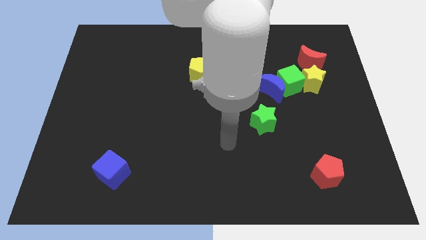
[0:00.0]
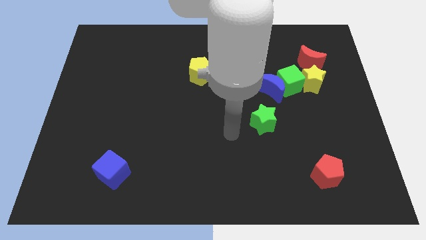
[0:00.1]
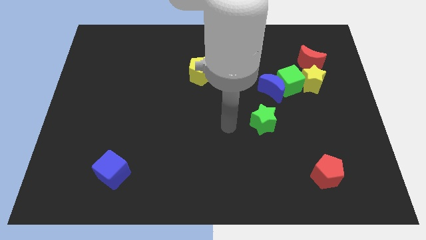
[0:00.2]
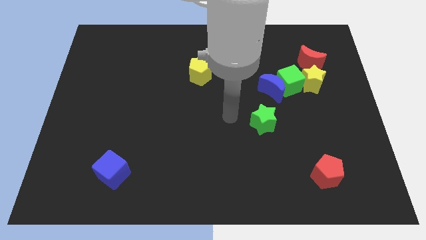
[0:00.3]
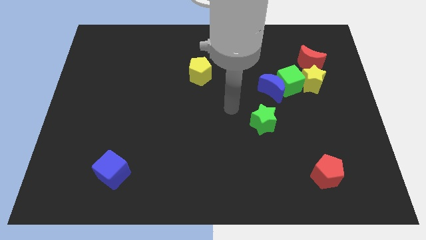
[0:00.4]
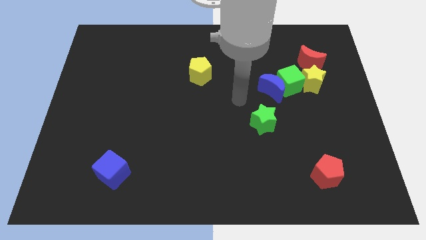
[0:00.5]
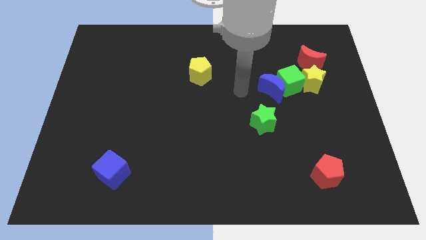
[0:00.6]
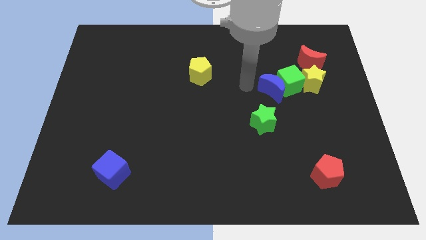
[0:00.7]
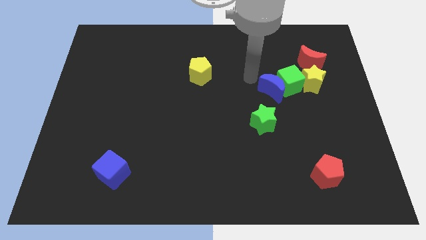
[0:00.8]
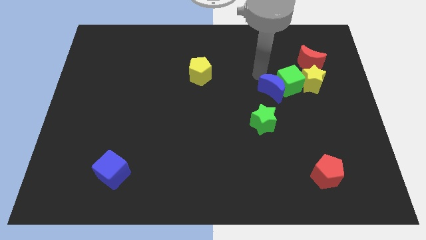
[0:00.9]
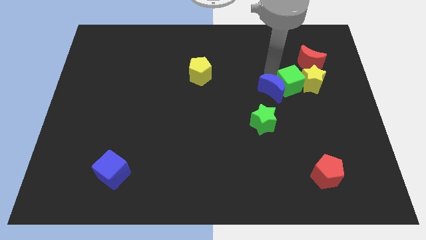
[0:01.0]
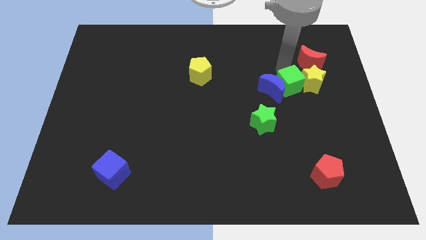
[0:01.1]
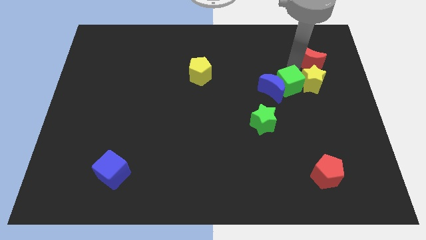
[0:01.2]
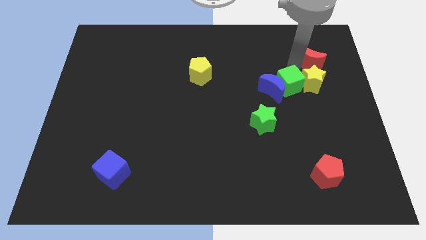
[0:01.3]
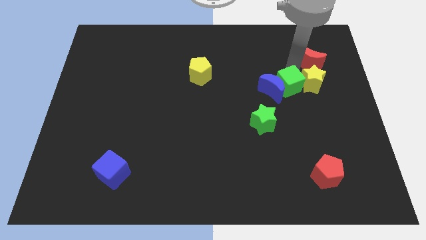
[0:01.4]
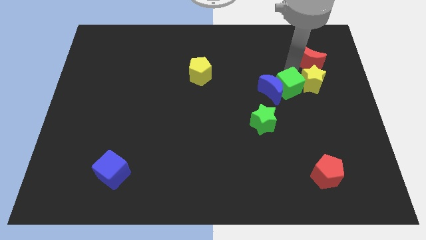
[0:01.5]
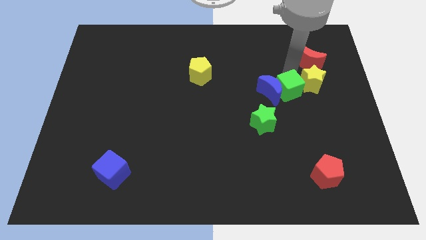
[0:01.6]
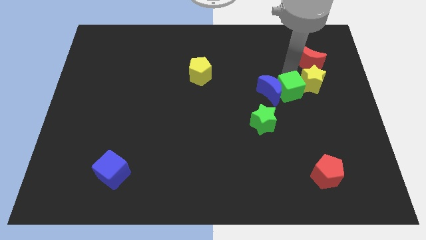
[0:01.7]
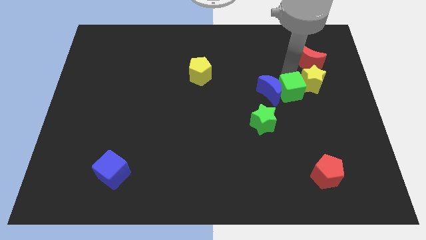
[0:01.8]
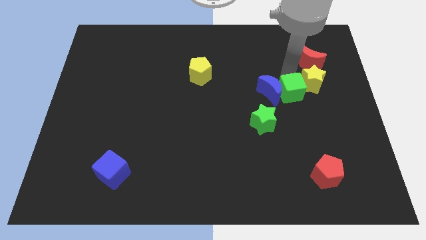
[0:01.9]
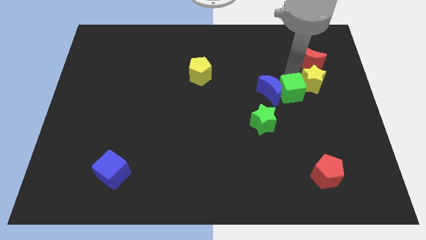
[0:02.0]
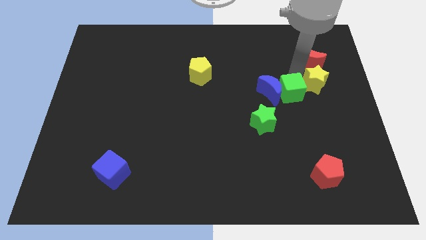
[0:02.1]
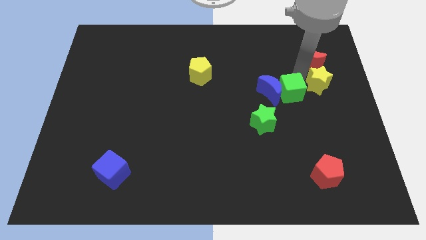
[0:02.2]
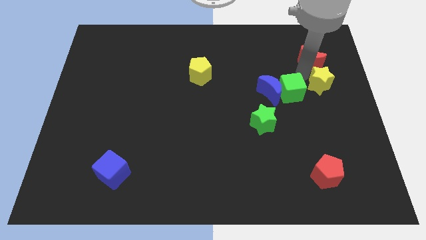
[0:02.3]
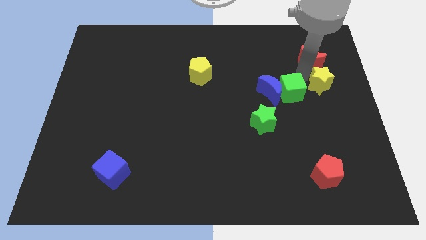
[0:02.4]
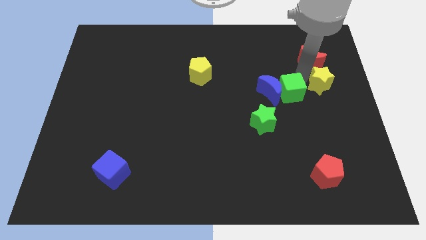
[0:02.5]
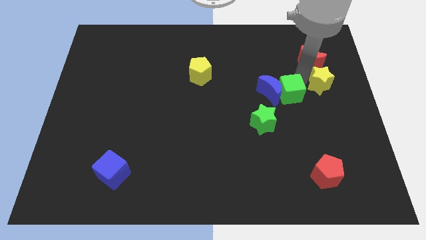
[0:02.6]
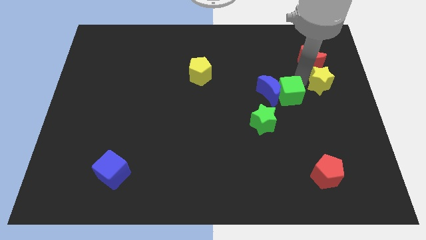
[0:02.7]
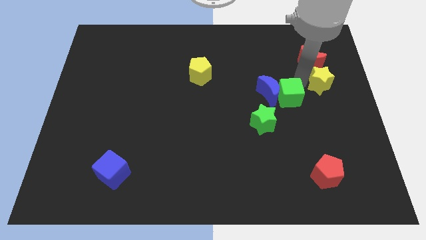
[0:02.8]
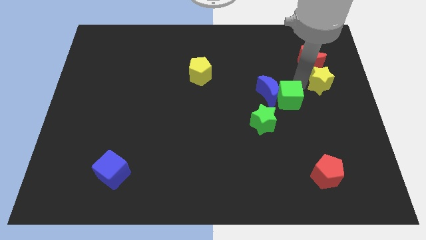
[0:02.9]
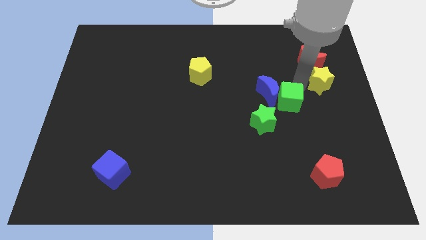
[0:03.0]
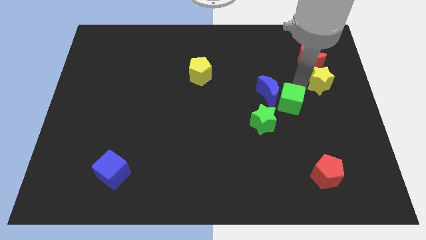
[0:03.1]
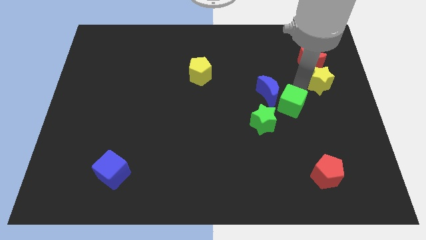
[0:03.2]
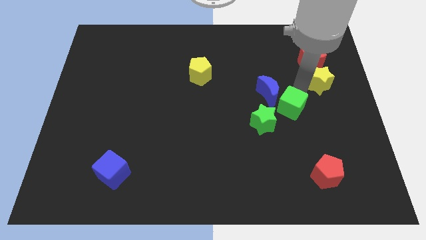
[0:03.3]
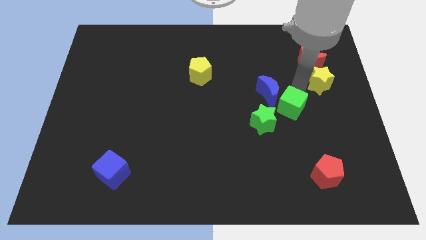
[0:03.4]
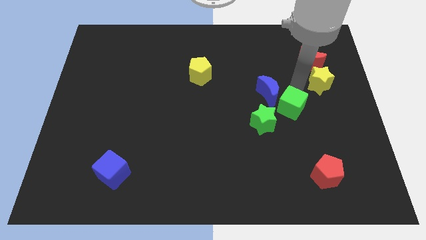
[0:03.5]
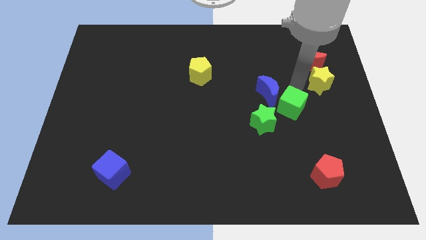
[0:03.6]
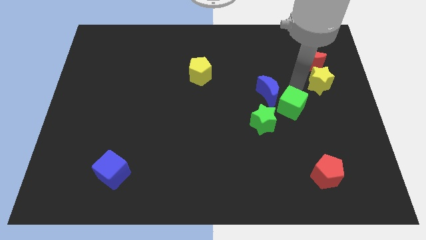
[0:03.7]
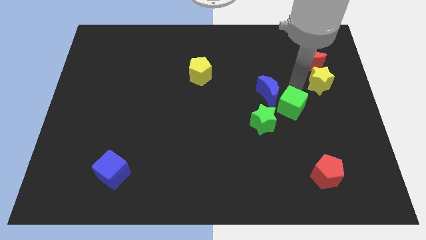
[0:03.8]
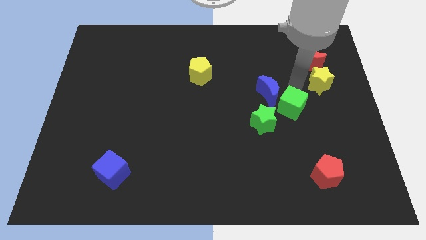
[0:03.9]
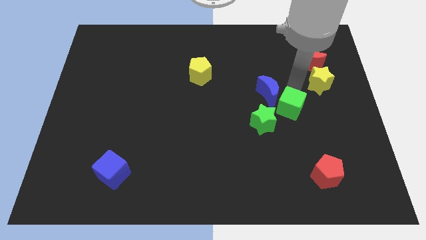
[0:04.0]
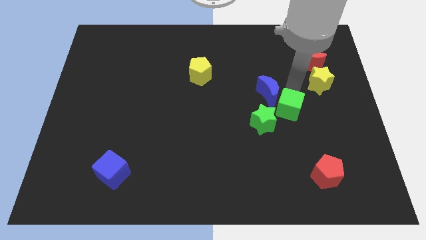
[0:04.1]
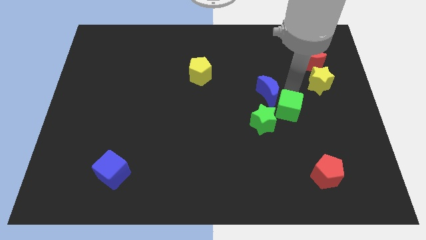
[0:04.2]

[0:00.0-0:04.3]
move the green cube away from the blue moon, yellow star, and red moon

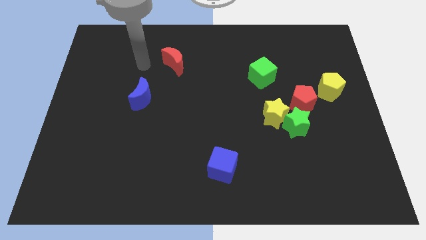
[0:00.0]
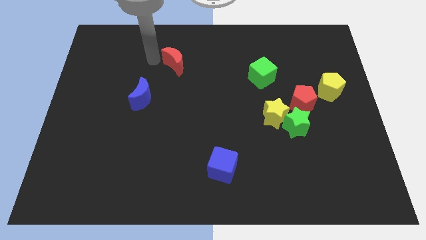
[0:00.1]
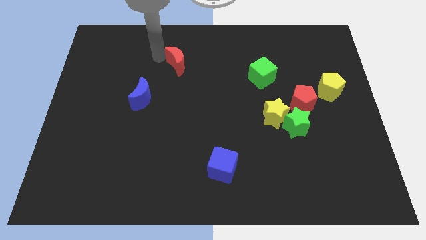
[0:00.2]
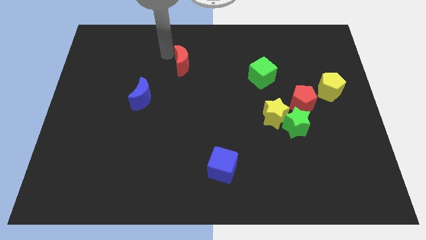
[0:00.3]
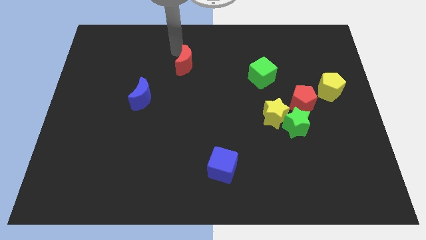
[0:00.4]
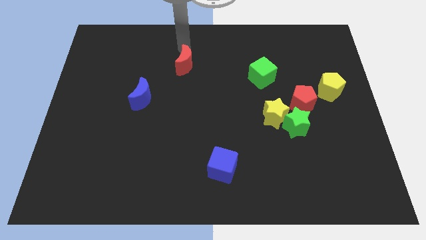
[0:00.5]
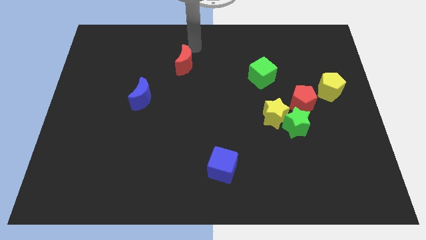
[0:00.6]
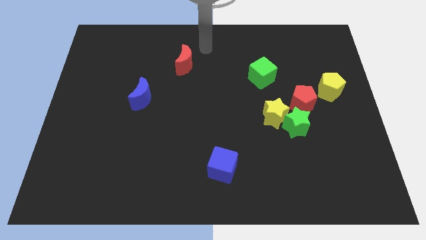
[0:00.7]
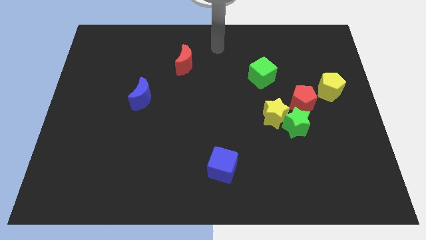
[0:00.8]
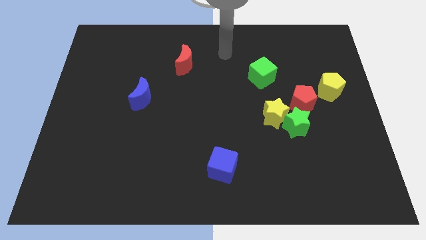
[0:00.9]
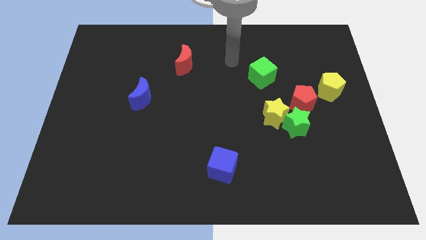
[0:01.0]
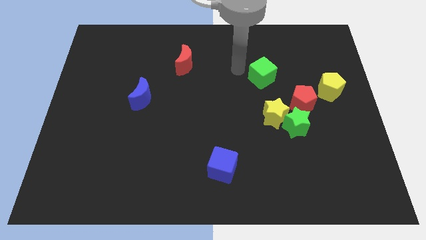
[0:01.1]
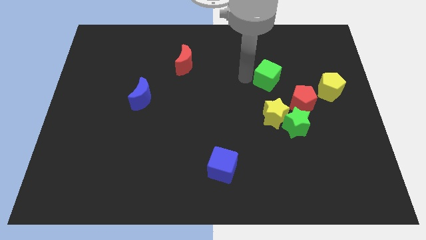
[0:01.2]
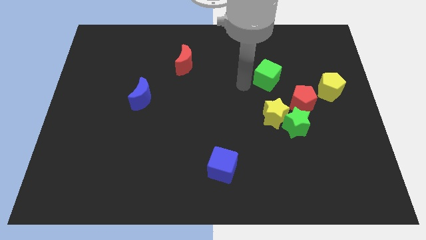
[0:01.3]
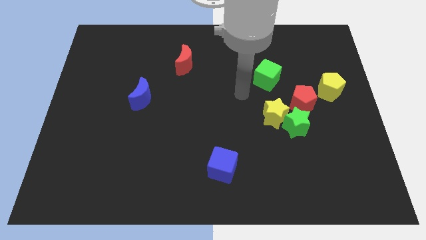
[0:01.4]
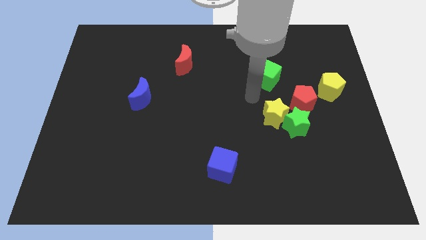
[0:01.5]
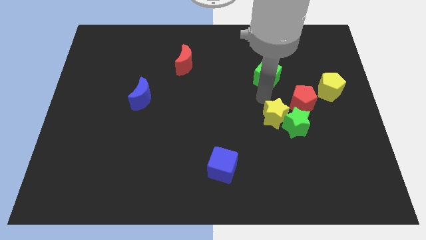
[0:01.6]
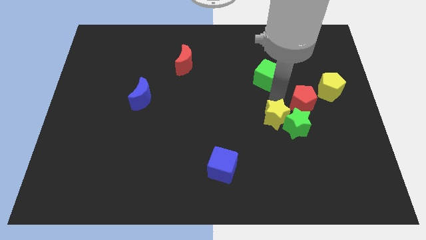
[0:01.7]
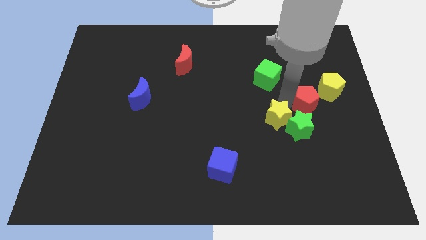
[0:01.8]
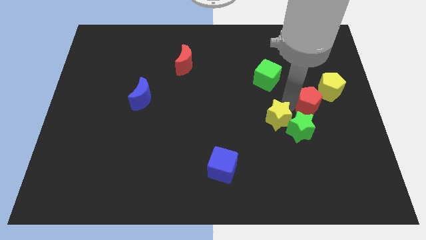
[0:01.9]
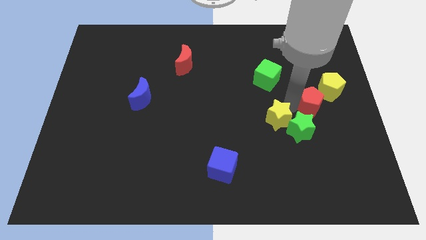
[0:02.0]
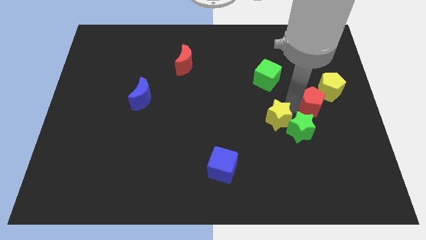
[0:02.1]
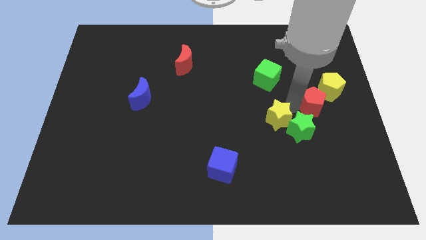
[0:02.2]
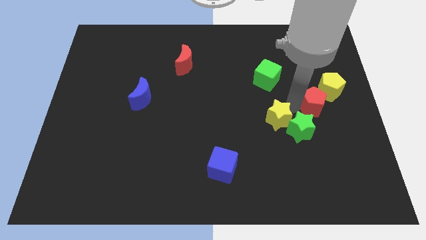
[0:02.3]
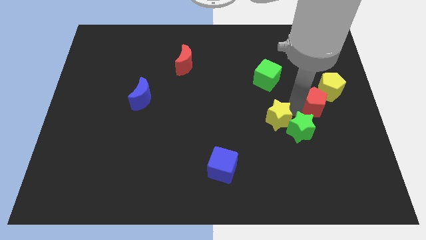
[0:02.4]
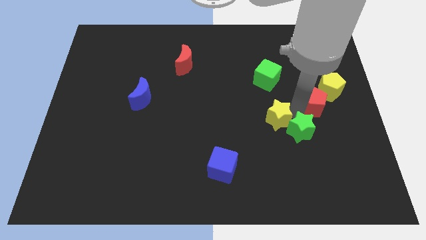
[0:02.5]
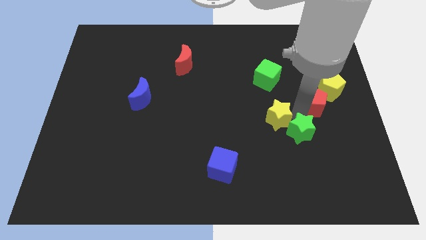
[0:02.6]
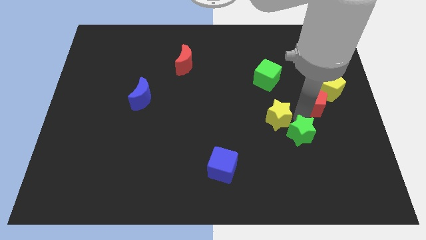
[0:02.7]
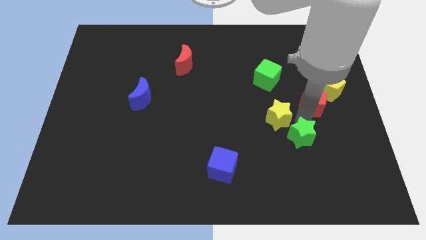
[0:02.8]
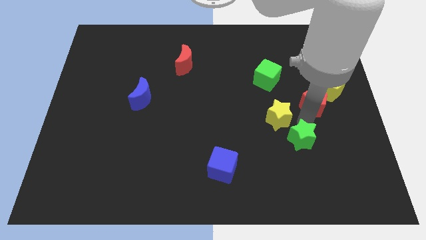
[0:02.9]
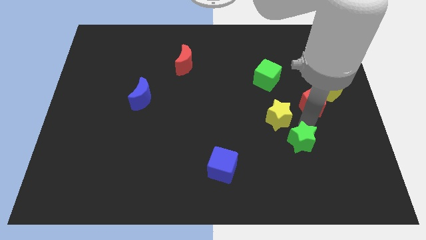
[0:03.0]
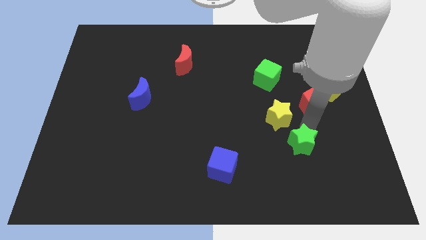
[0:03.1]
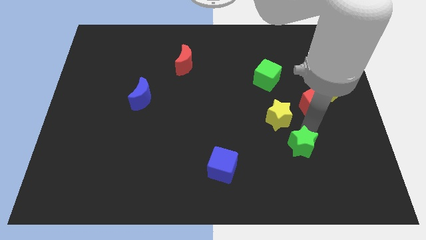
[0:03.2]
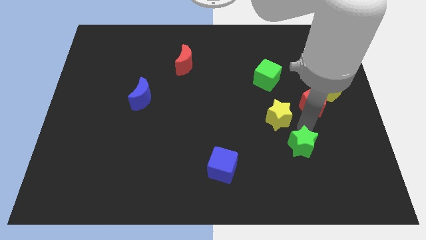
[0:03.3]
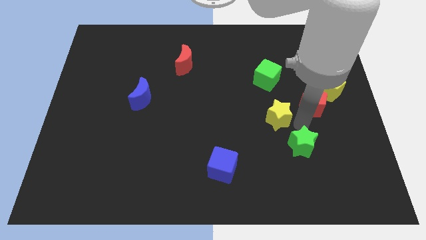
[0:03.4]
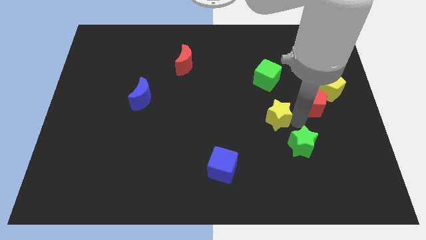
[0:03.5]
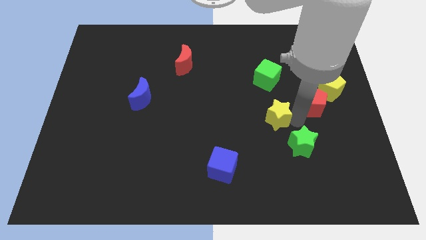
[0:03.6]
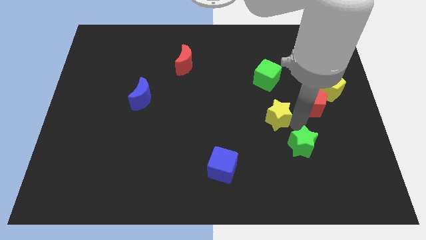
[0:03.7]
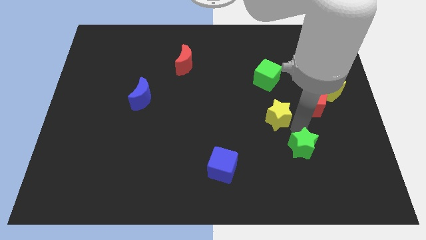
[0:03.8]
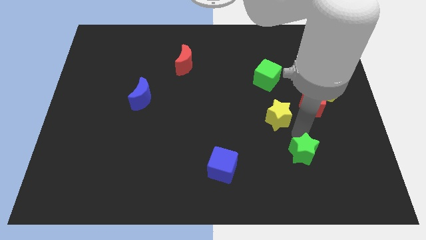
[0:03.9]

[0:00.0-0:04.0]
pull the green star apart from the yellow star and red pentagon

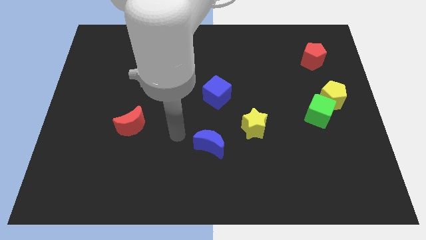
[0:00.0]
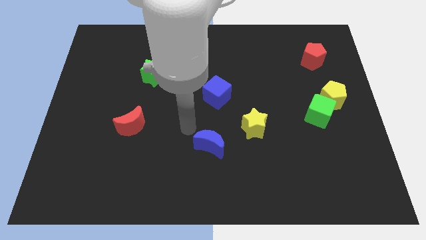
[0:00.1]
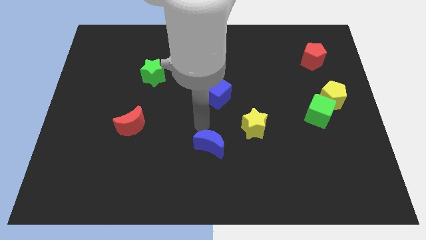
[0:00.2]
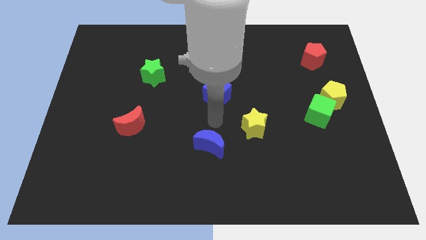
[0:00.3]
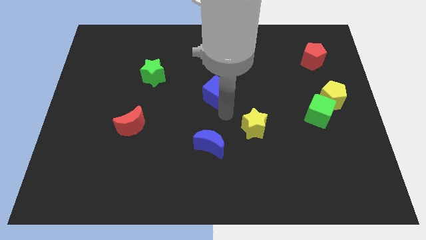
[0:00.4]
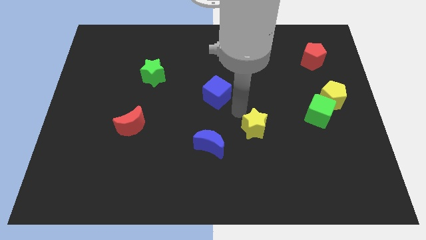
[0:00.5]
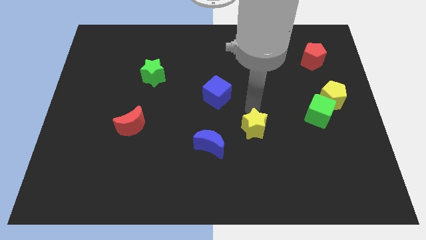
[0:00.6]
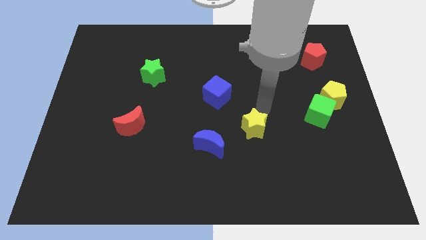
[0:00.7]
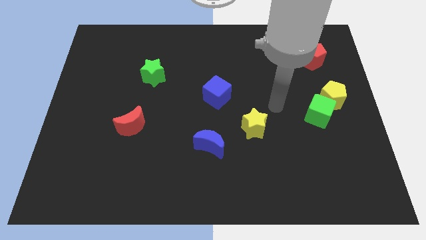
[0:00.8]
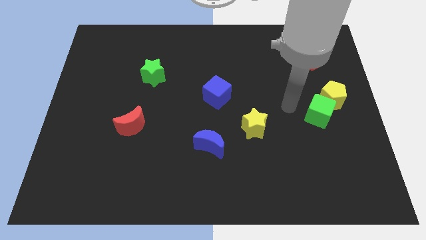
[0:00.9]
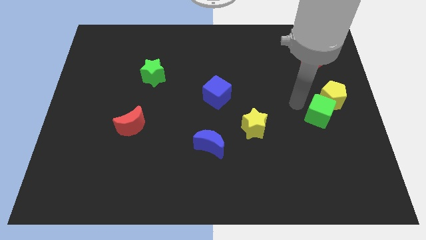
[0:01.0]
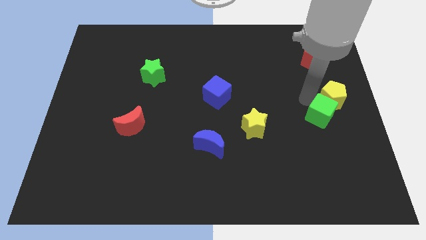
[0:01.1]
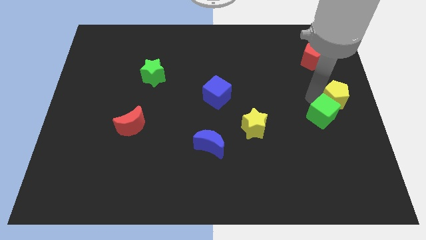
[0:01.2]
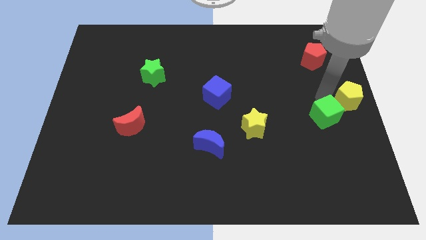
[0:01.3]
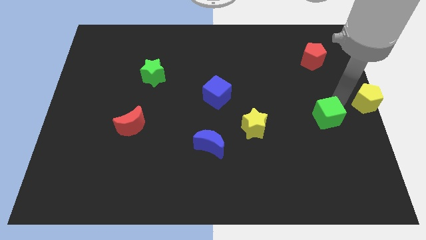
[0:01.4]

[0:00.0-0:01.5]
separate the green cube from the yellow pentagon
